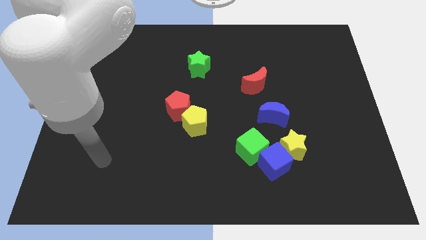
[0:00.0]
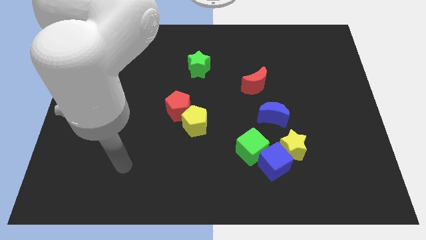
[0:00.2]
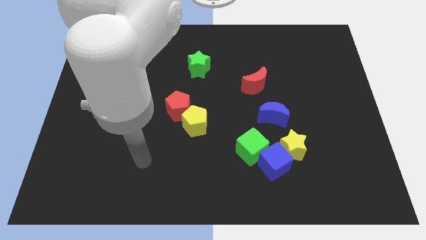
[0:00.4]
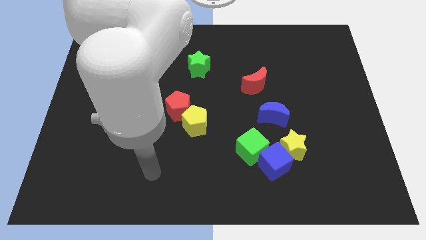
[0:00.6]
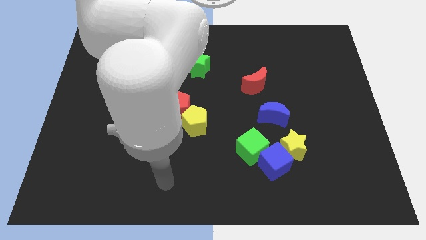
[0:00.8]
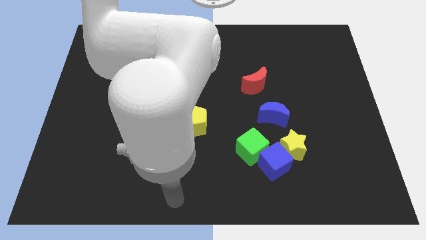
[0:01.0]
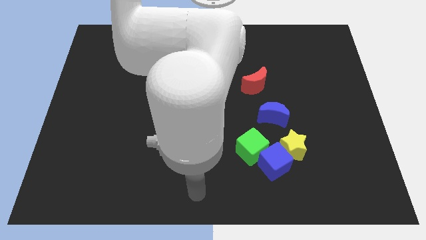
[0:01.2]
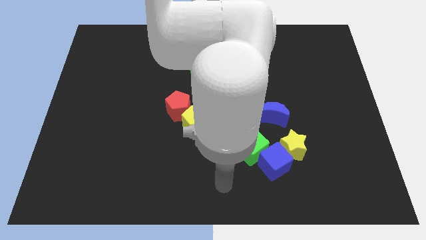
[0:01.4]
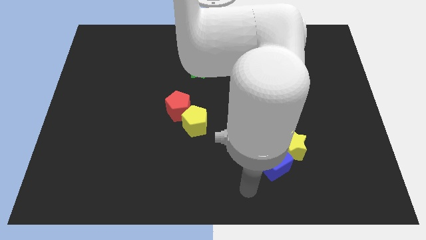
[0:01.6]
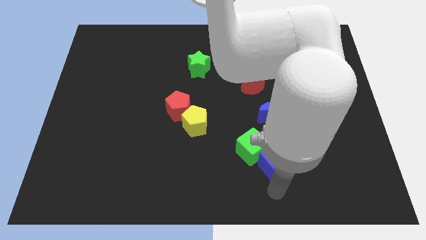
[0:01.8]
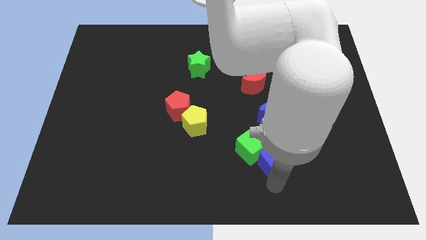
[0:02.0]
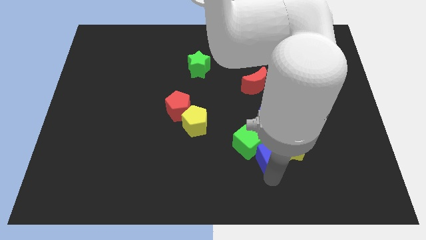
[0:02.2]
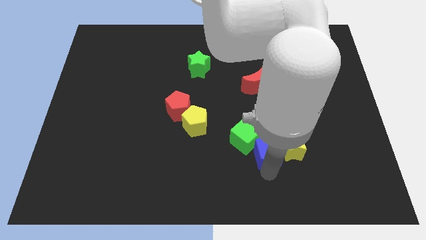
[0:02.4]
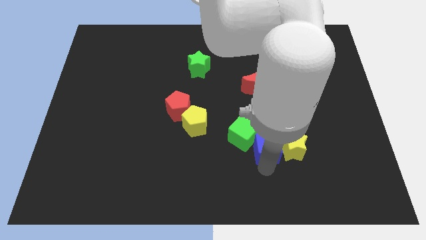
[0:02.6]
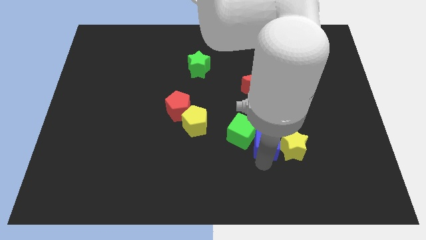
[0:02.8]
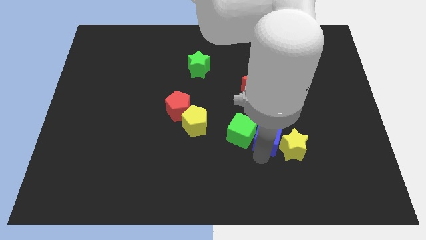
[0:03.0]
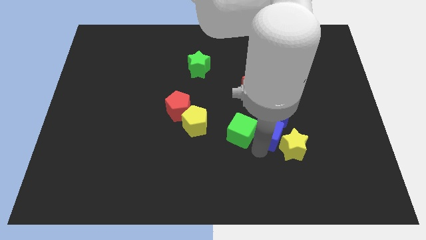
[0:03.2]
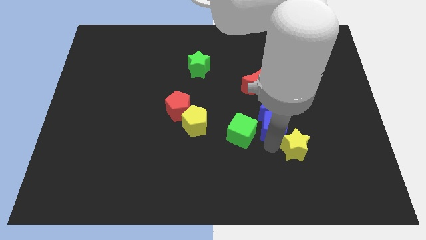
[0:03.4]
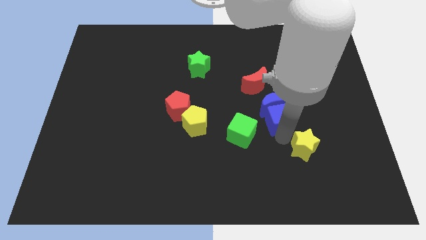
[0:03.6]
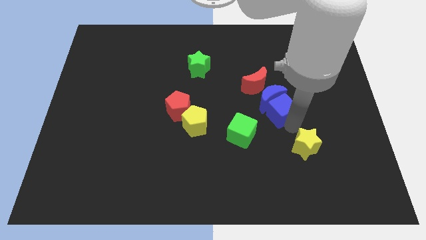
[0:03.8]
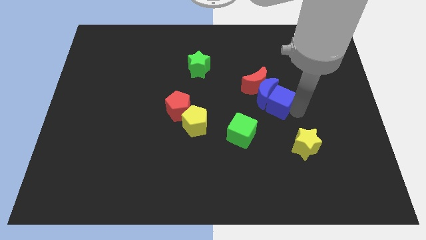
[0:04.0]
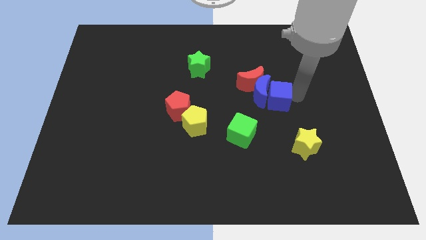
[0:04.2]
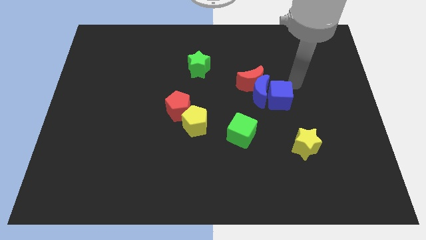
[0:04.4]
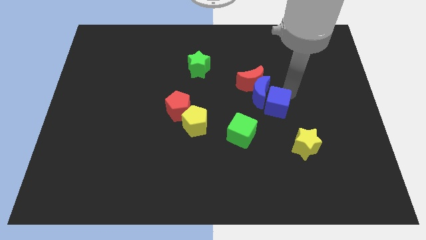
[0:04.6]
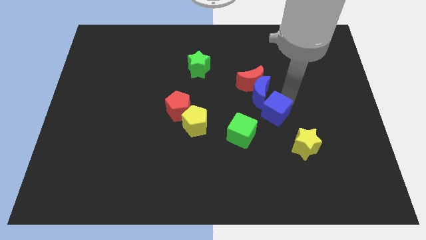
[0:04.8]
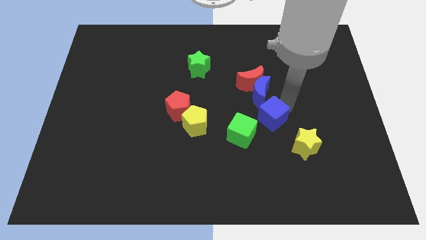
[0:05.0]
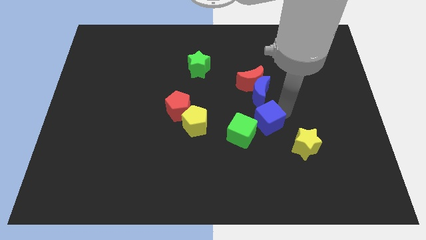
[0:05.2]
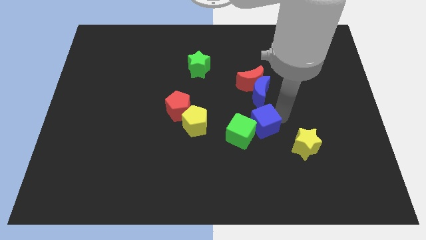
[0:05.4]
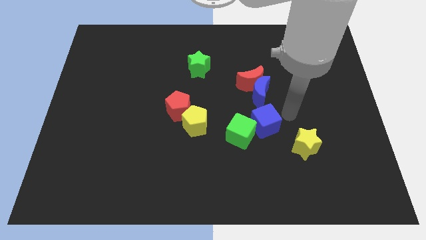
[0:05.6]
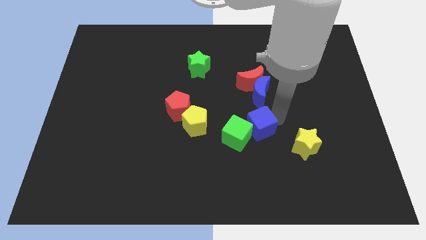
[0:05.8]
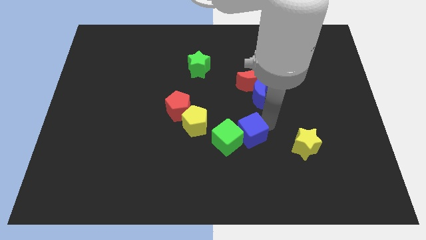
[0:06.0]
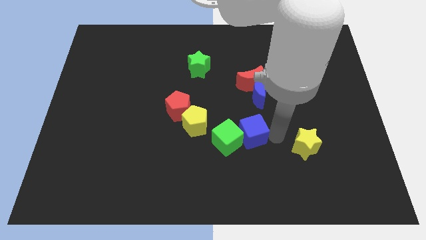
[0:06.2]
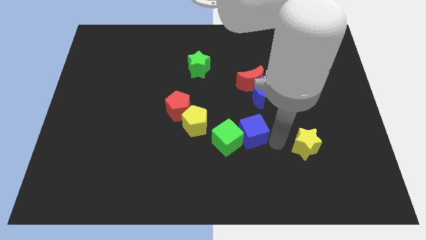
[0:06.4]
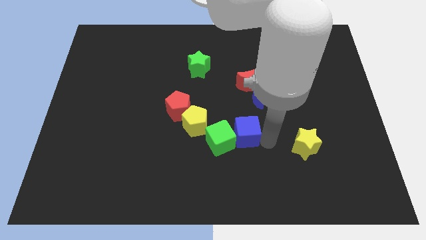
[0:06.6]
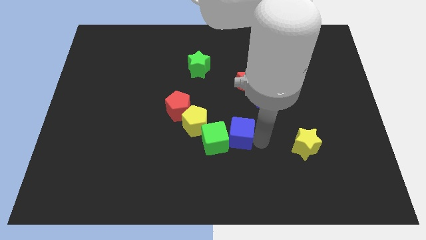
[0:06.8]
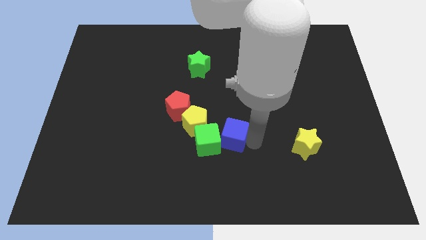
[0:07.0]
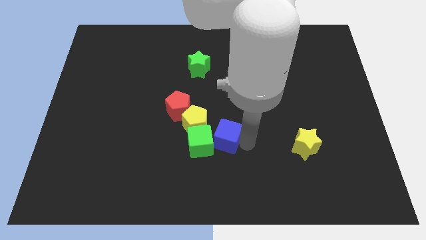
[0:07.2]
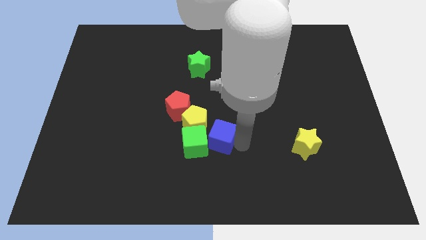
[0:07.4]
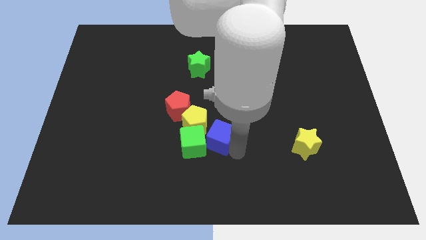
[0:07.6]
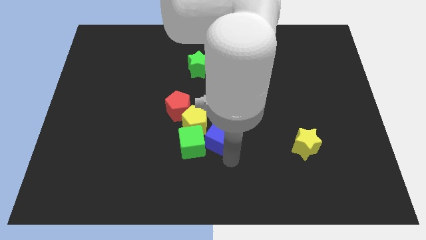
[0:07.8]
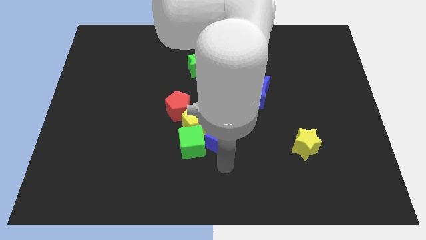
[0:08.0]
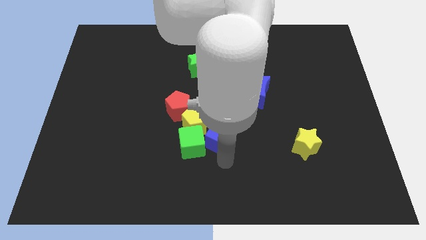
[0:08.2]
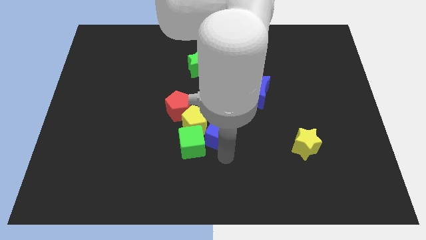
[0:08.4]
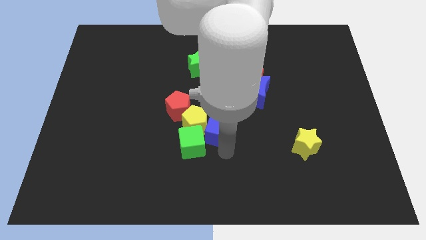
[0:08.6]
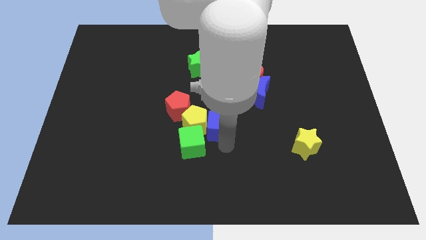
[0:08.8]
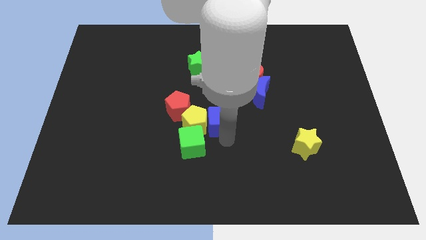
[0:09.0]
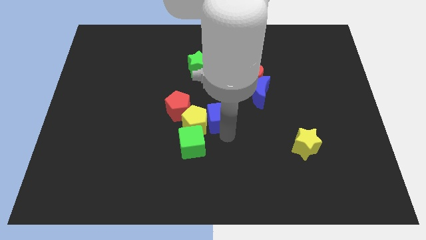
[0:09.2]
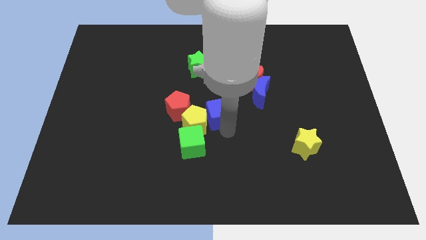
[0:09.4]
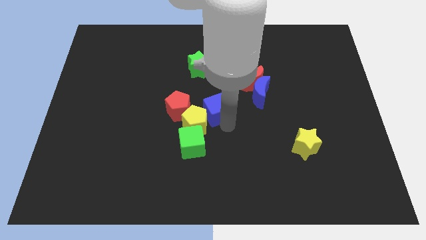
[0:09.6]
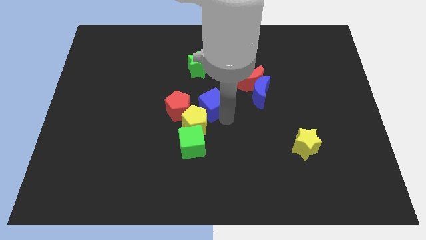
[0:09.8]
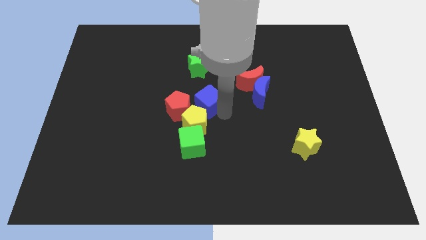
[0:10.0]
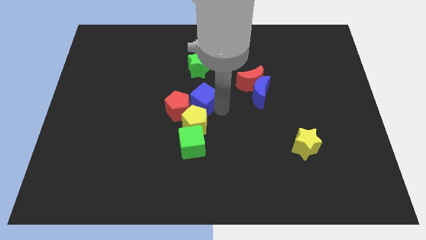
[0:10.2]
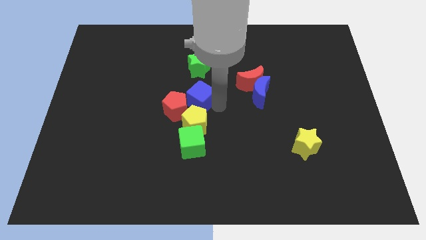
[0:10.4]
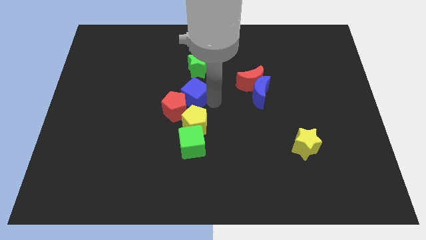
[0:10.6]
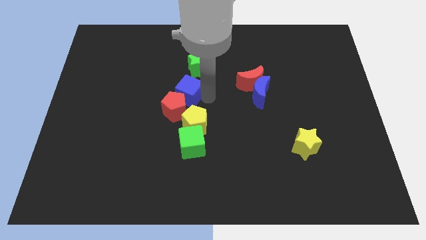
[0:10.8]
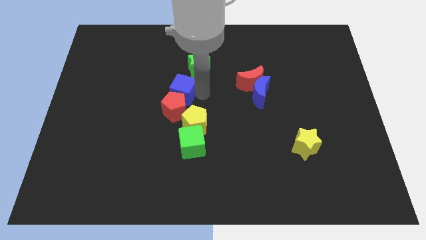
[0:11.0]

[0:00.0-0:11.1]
move the blue cube diagonally up and to the left of the red pentagon

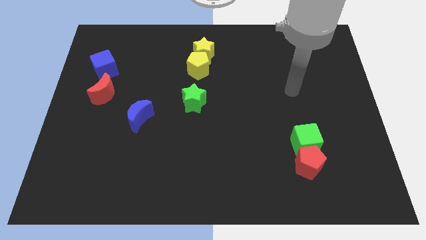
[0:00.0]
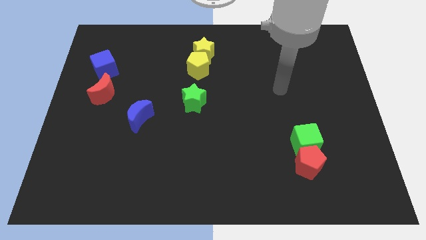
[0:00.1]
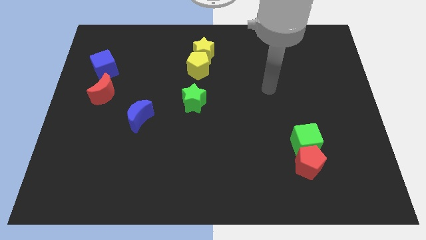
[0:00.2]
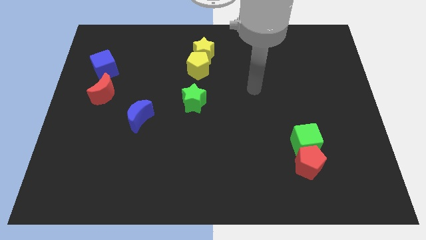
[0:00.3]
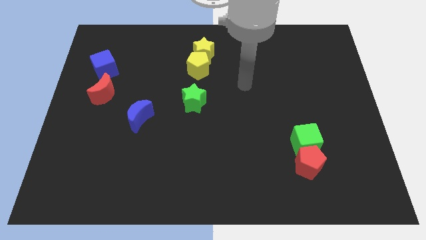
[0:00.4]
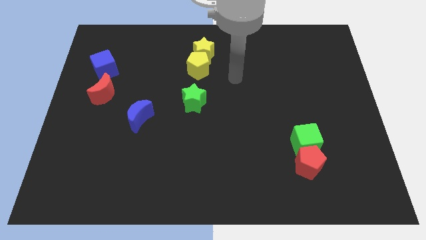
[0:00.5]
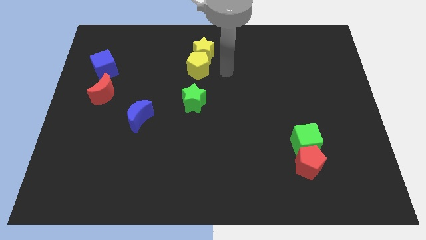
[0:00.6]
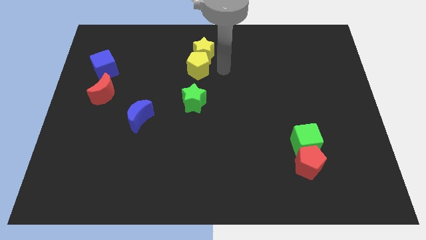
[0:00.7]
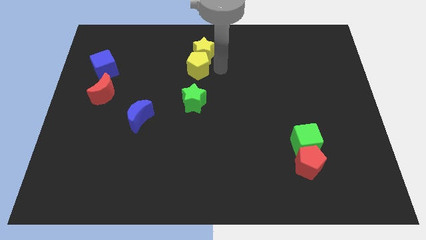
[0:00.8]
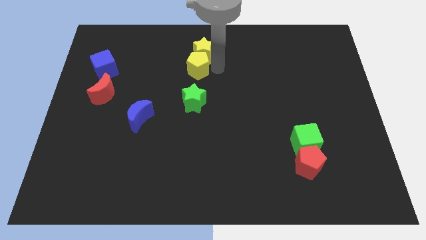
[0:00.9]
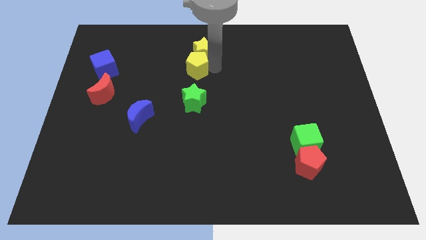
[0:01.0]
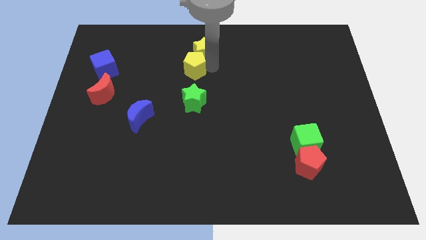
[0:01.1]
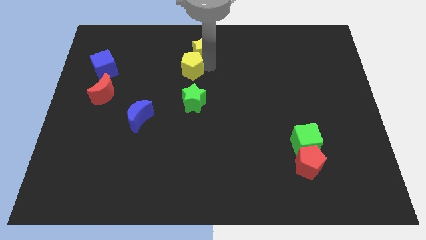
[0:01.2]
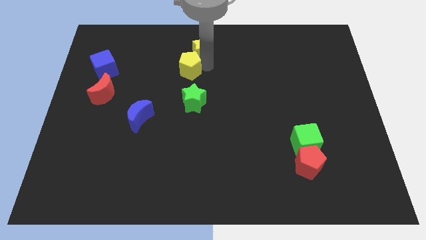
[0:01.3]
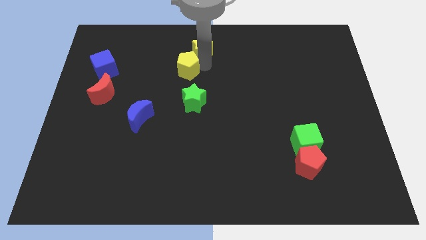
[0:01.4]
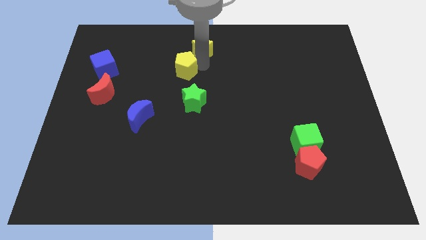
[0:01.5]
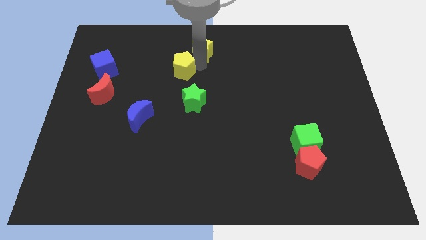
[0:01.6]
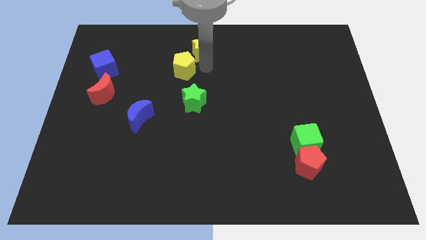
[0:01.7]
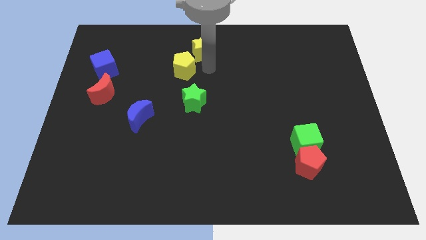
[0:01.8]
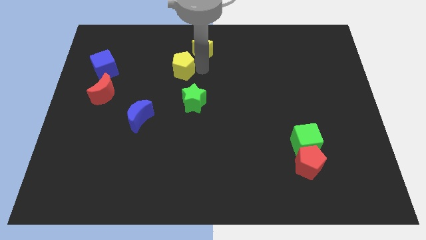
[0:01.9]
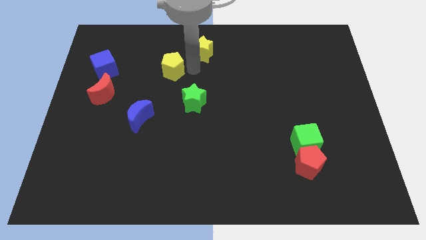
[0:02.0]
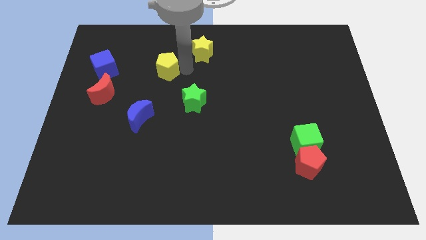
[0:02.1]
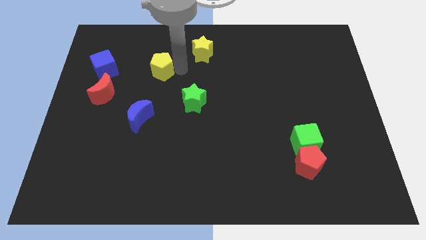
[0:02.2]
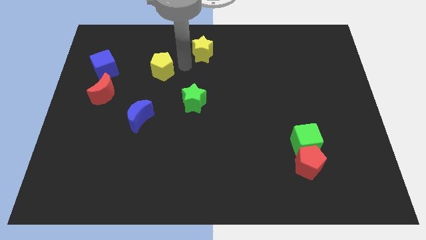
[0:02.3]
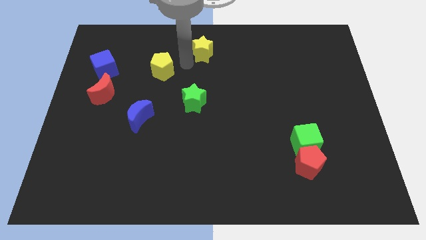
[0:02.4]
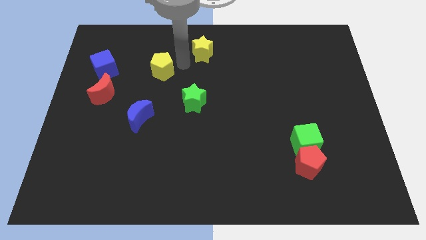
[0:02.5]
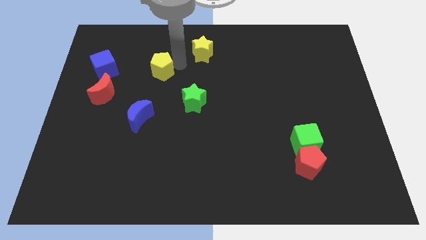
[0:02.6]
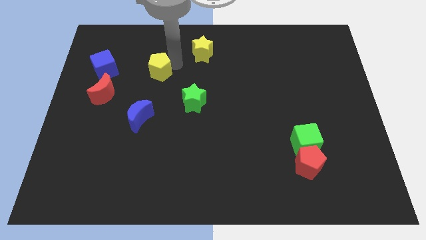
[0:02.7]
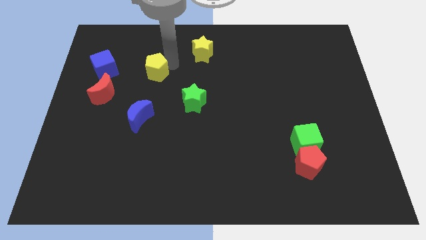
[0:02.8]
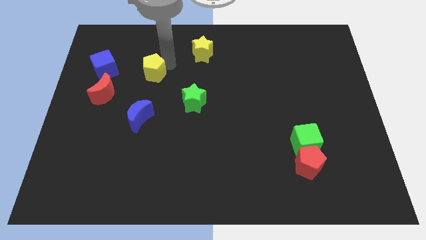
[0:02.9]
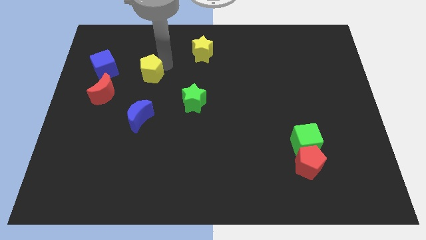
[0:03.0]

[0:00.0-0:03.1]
move the yellow pentagon to the top right side of the red moon

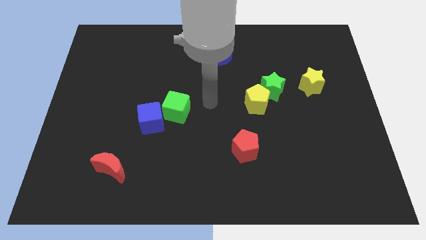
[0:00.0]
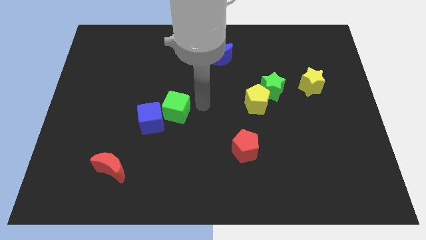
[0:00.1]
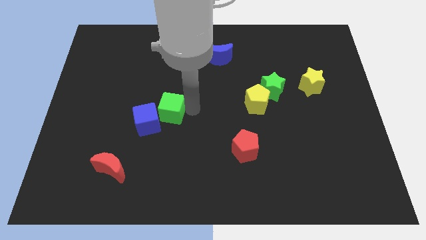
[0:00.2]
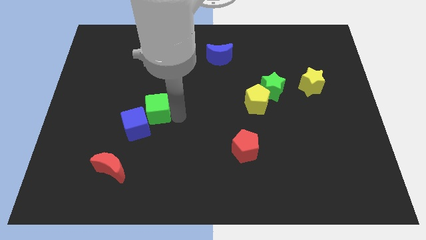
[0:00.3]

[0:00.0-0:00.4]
put the blue cube to the top of the red moon
